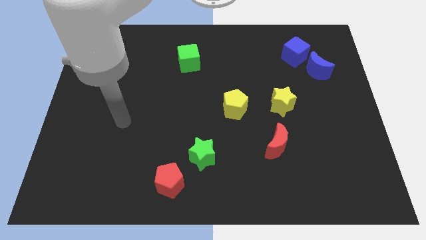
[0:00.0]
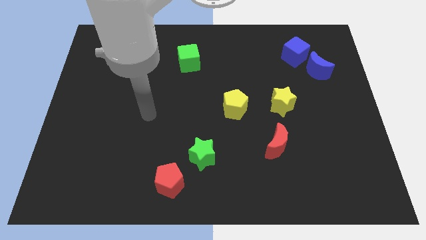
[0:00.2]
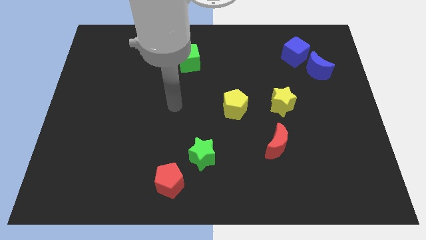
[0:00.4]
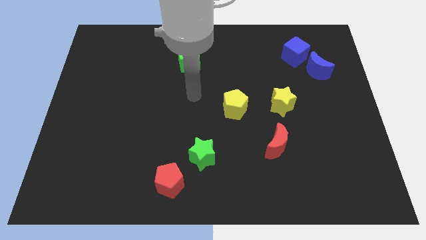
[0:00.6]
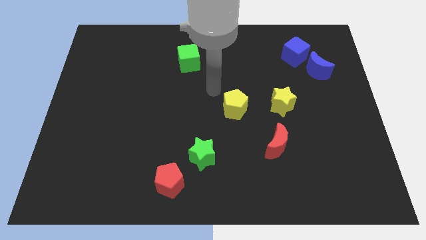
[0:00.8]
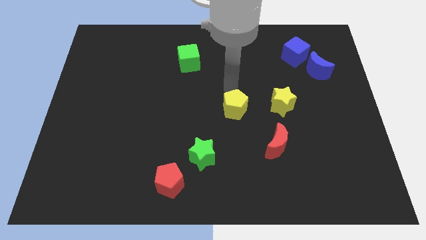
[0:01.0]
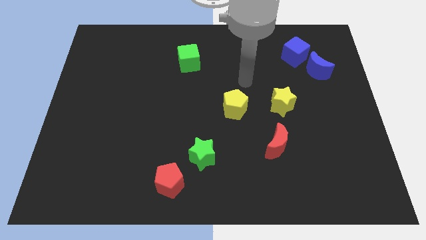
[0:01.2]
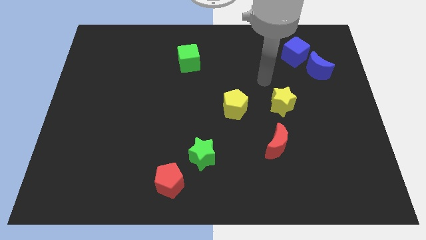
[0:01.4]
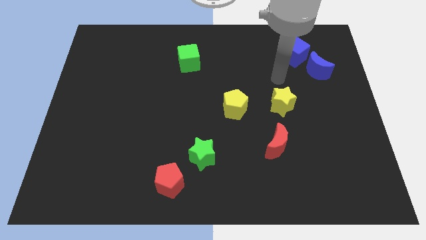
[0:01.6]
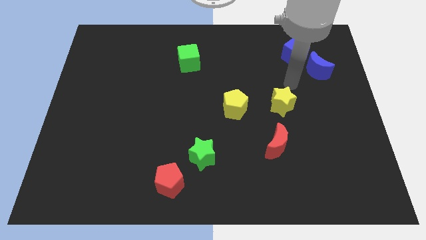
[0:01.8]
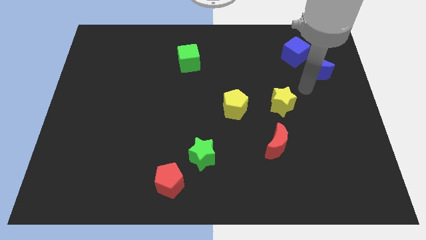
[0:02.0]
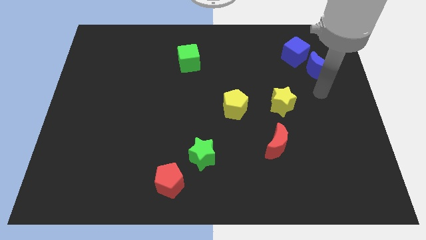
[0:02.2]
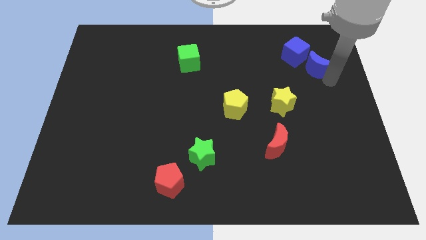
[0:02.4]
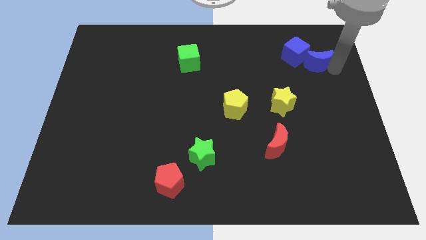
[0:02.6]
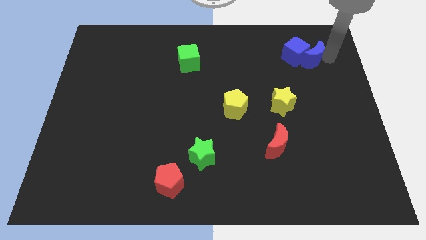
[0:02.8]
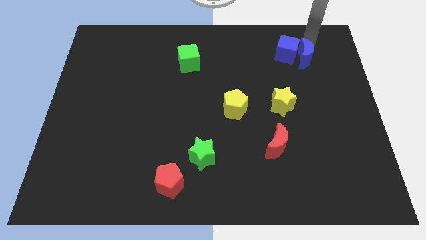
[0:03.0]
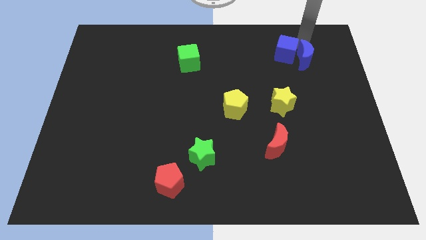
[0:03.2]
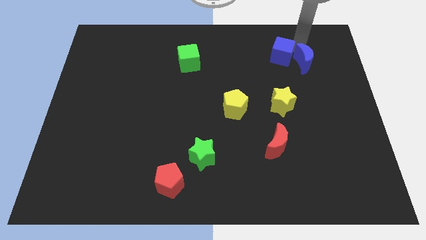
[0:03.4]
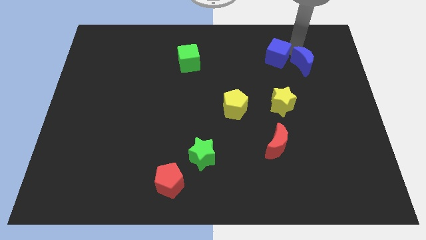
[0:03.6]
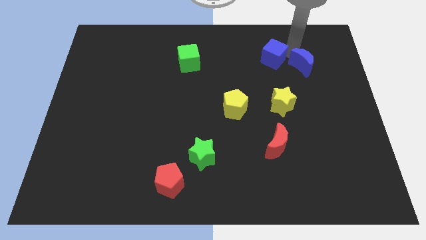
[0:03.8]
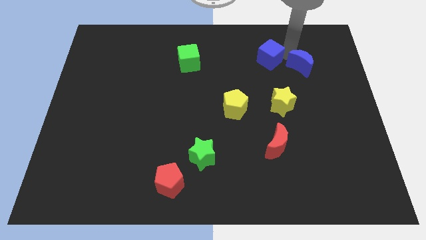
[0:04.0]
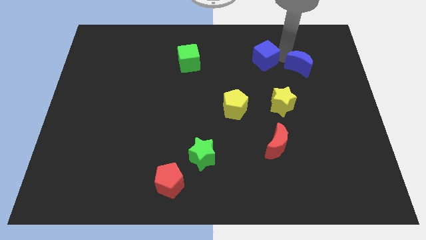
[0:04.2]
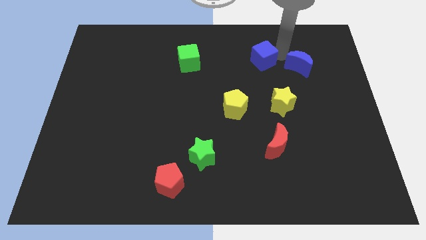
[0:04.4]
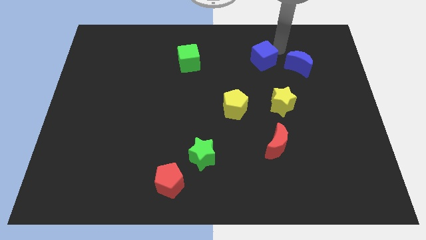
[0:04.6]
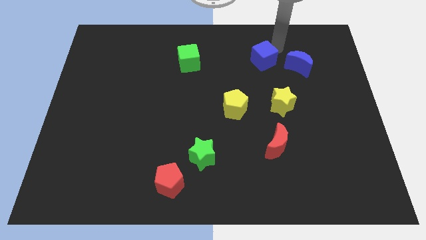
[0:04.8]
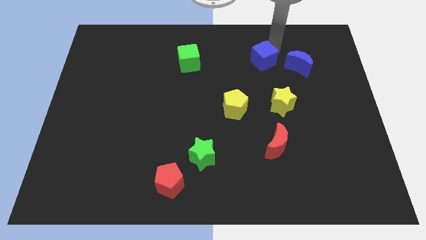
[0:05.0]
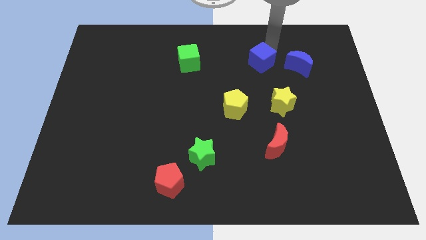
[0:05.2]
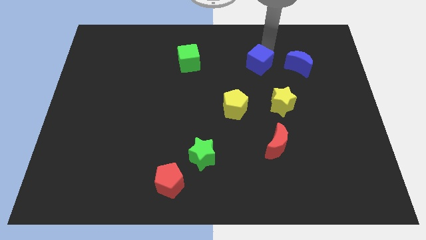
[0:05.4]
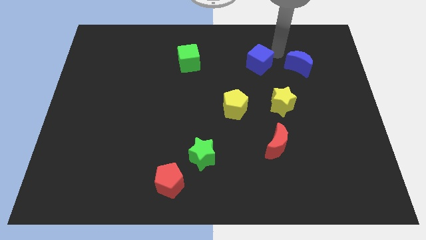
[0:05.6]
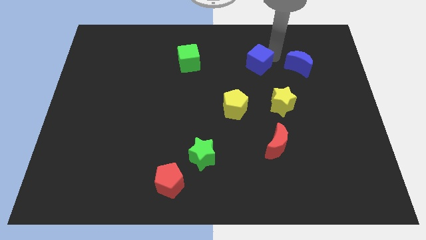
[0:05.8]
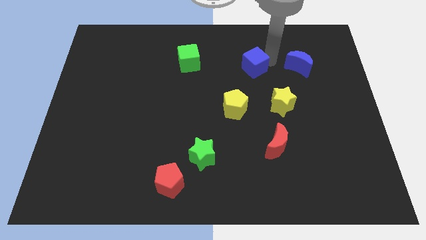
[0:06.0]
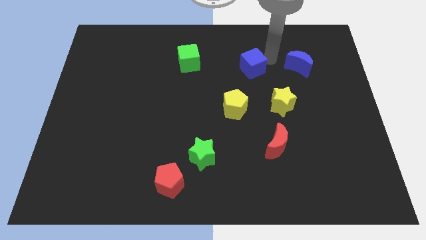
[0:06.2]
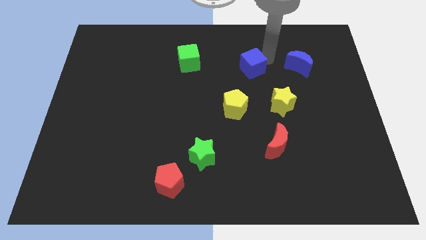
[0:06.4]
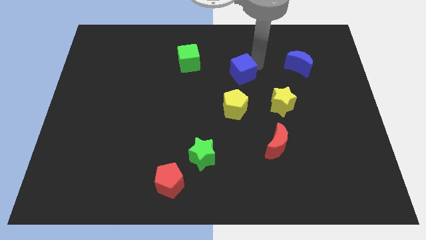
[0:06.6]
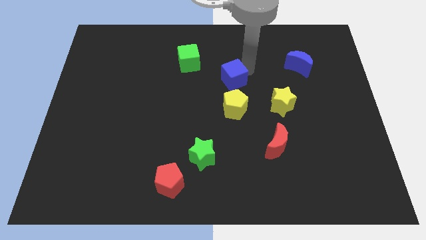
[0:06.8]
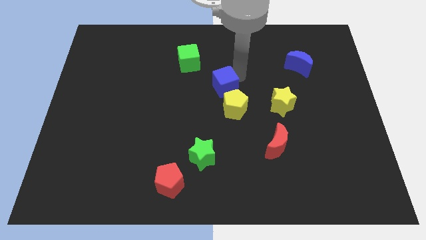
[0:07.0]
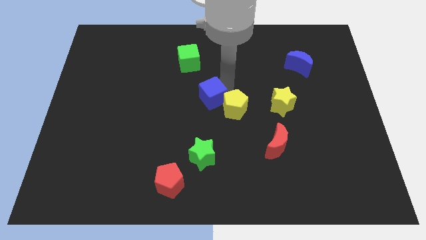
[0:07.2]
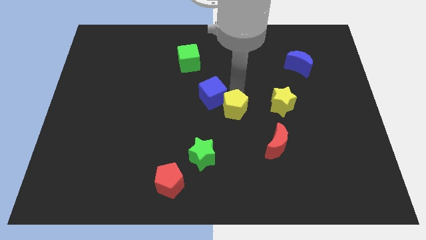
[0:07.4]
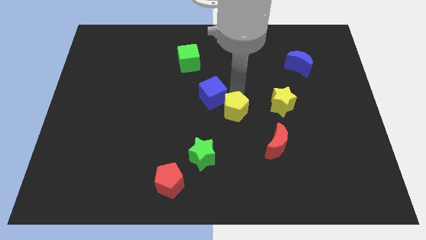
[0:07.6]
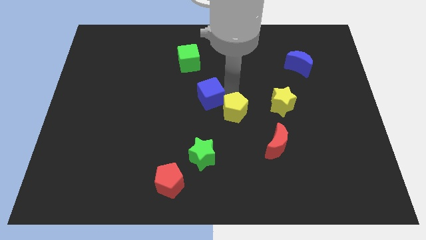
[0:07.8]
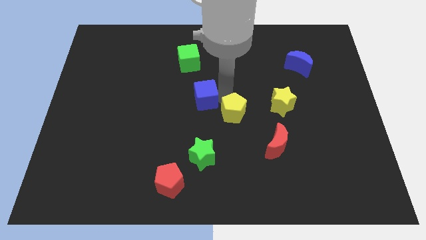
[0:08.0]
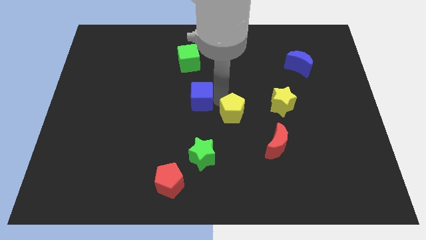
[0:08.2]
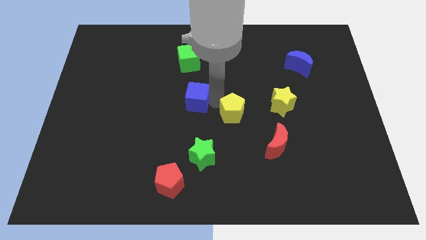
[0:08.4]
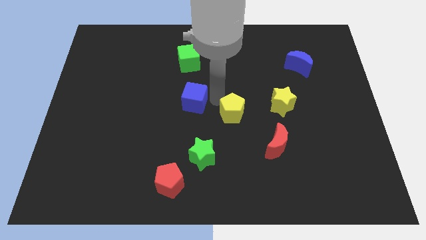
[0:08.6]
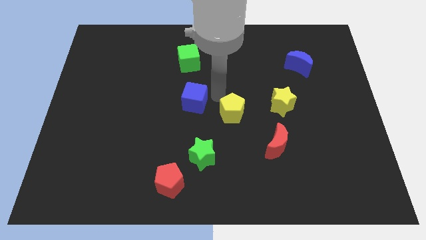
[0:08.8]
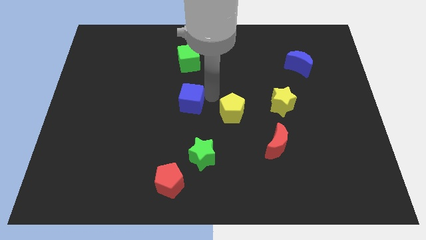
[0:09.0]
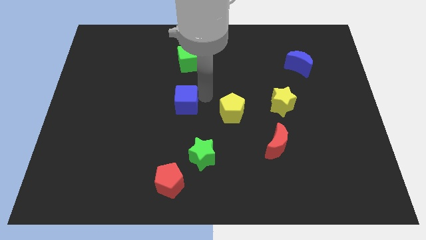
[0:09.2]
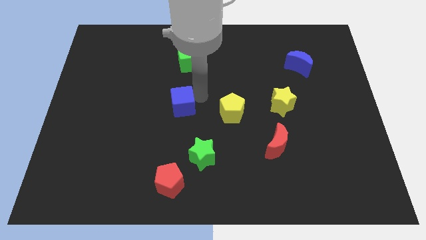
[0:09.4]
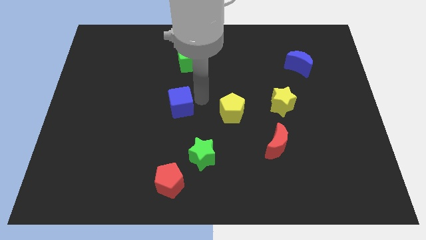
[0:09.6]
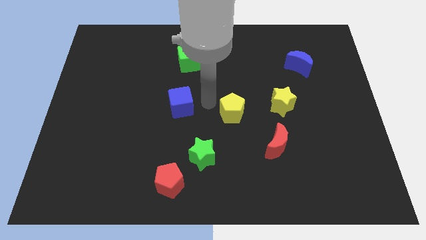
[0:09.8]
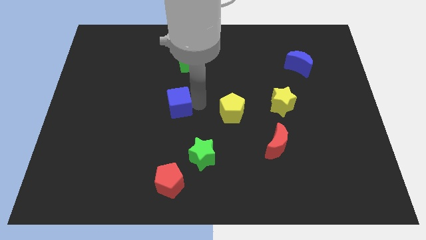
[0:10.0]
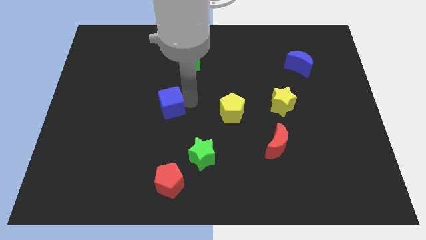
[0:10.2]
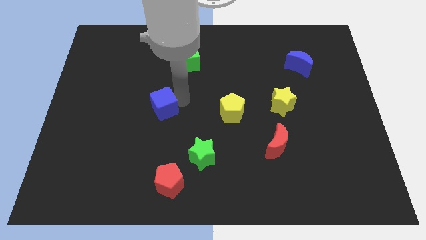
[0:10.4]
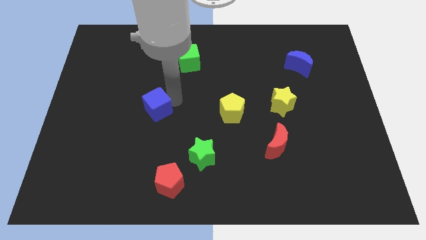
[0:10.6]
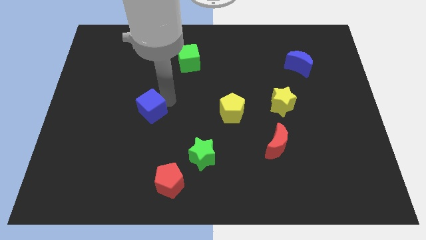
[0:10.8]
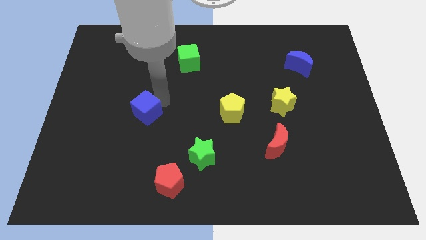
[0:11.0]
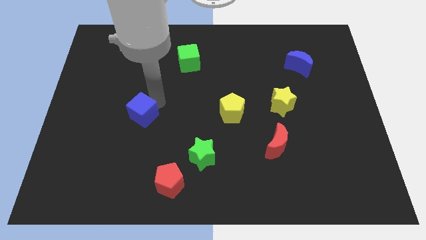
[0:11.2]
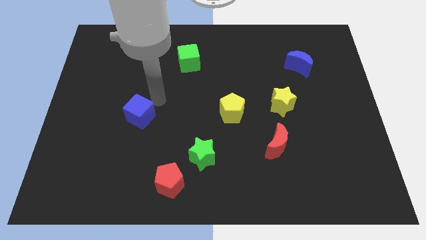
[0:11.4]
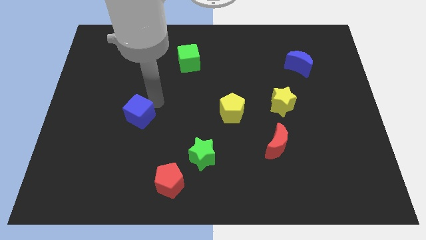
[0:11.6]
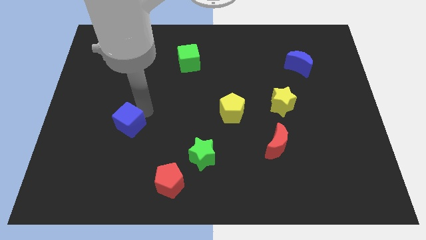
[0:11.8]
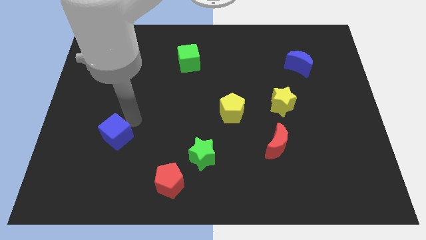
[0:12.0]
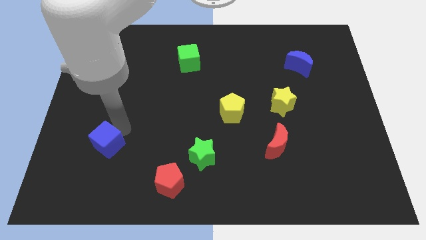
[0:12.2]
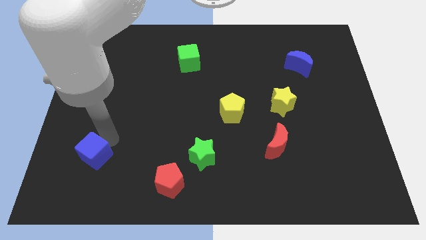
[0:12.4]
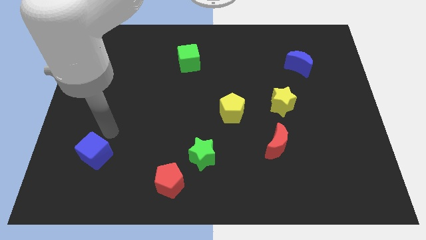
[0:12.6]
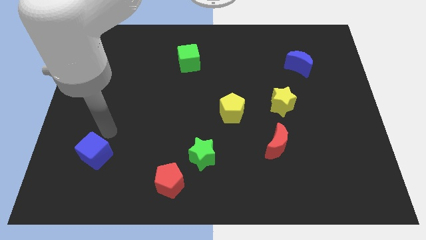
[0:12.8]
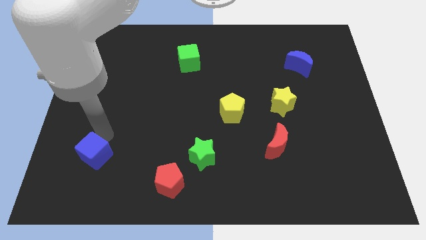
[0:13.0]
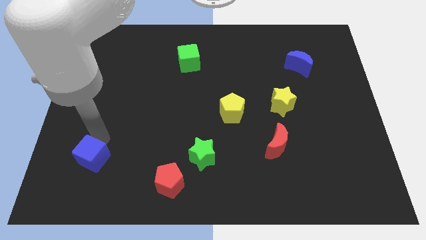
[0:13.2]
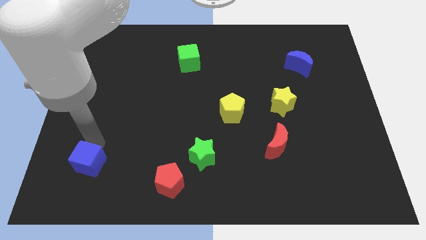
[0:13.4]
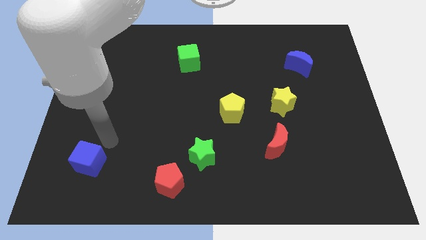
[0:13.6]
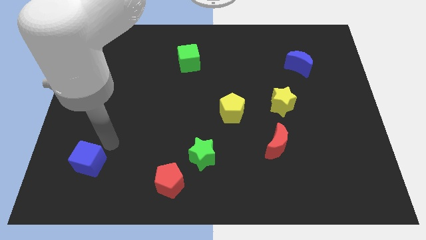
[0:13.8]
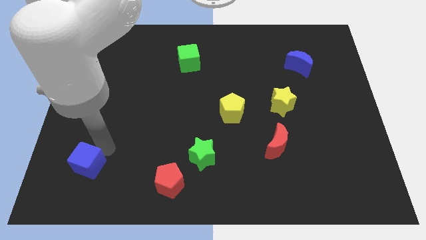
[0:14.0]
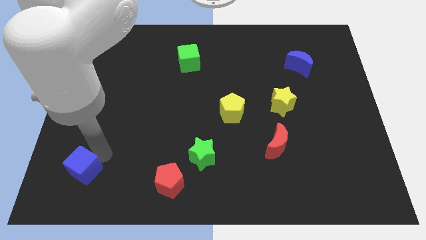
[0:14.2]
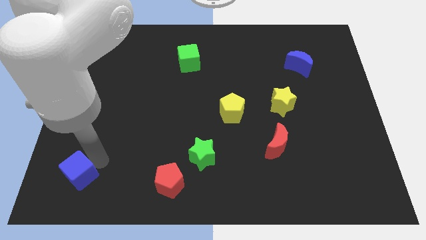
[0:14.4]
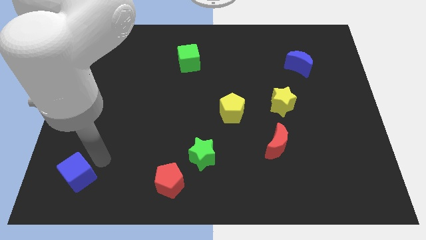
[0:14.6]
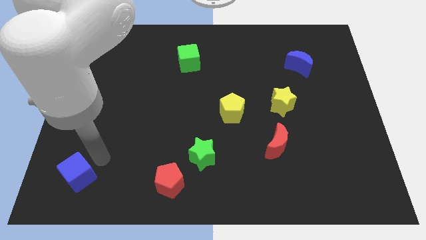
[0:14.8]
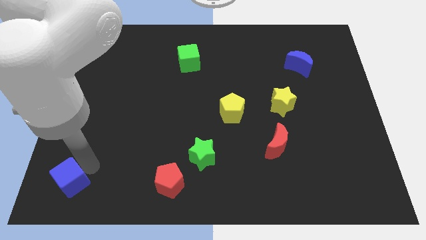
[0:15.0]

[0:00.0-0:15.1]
move the blue cube to the bottom left
